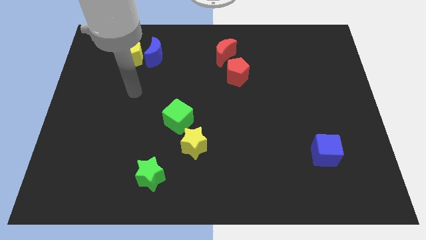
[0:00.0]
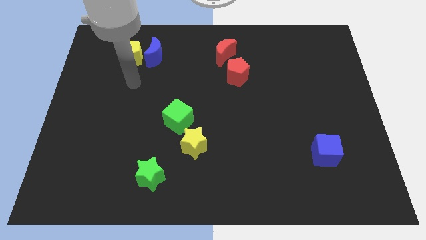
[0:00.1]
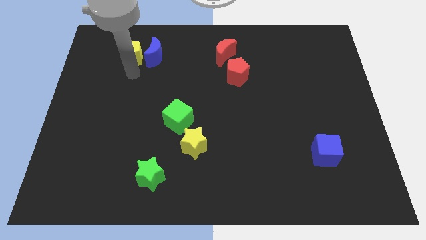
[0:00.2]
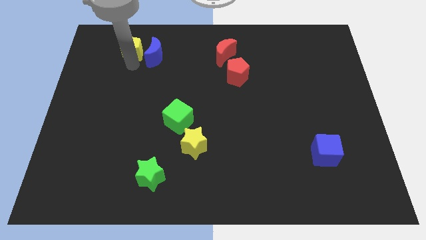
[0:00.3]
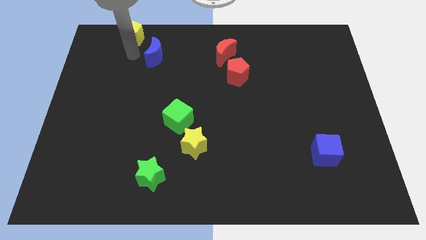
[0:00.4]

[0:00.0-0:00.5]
move the blue moon away from the yellow pentagon

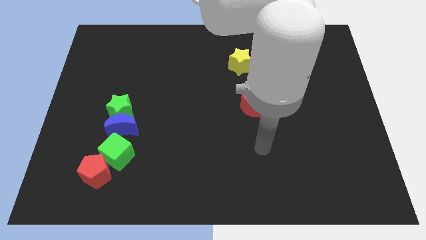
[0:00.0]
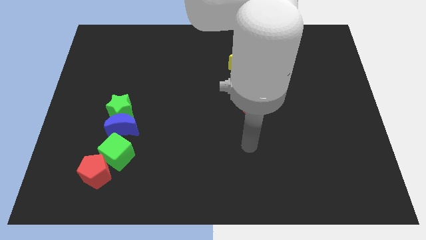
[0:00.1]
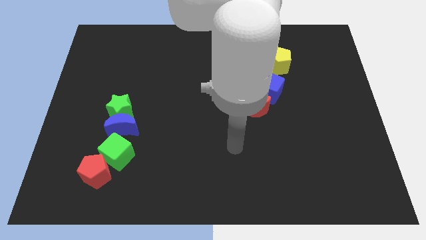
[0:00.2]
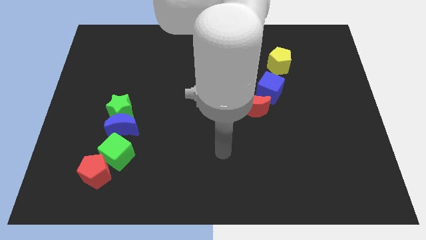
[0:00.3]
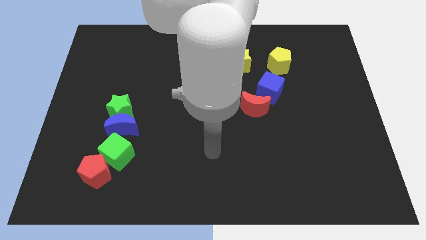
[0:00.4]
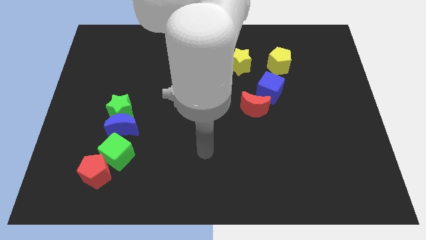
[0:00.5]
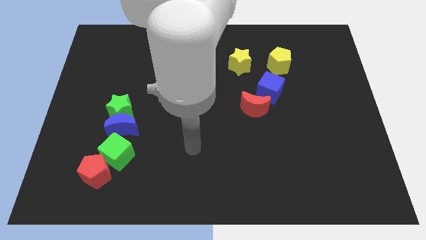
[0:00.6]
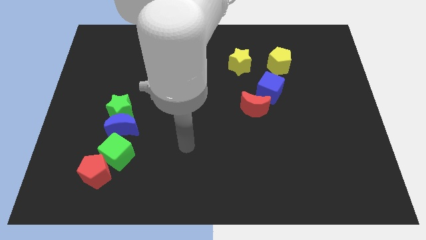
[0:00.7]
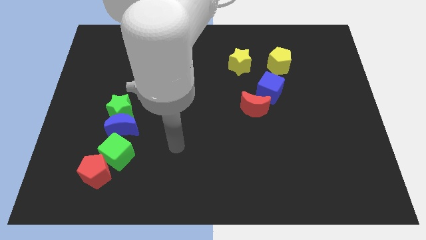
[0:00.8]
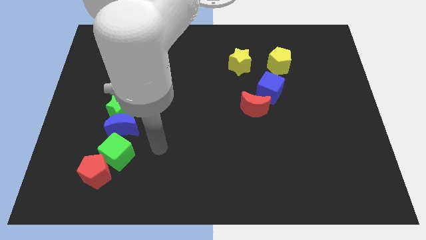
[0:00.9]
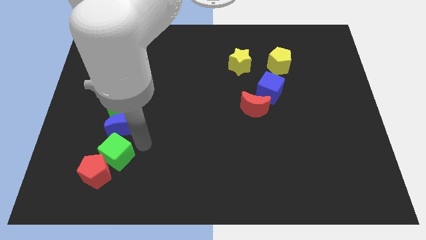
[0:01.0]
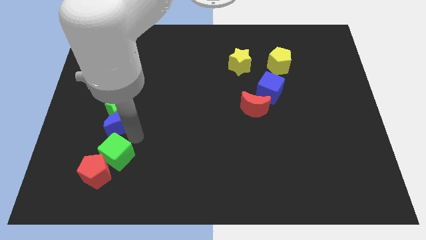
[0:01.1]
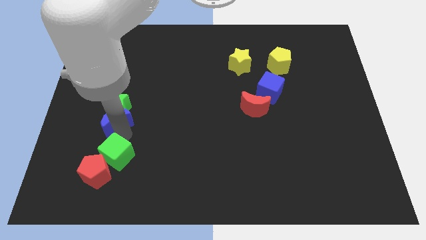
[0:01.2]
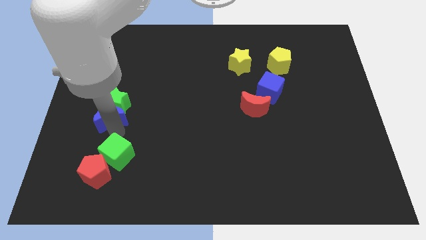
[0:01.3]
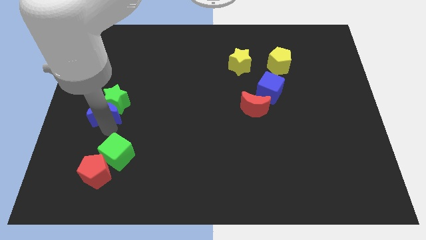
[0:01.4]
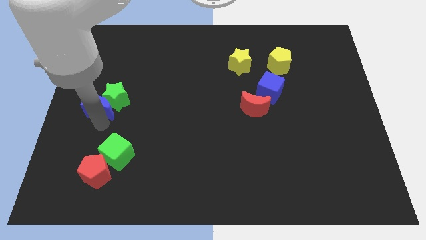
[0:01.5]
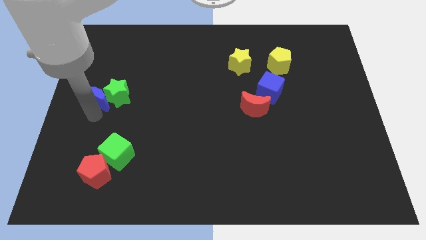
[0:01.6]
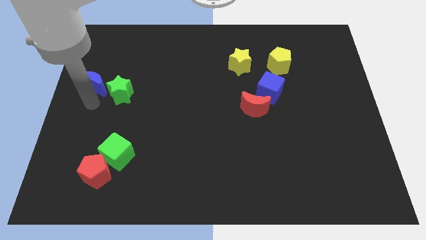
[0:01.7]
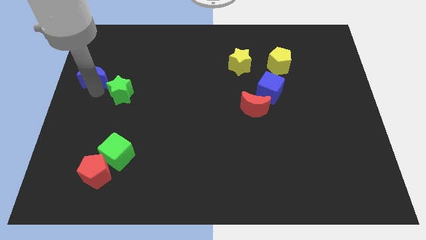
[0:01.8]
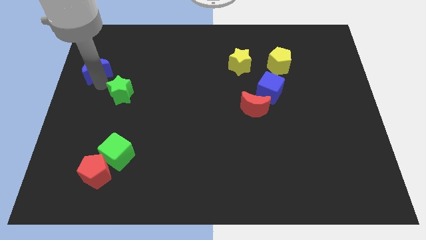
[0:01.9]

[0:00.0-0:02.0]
move the green star away from the blue moon

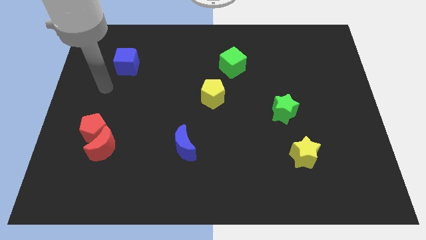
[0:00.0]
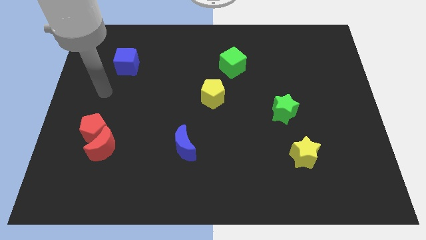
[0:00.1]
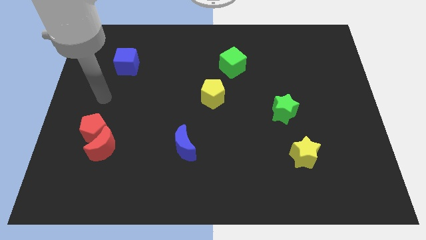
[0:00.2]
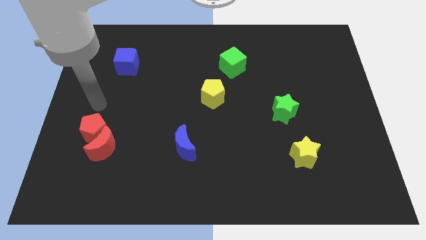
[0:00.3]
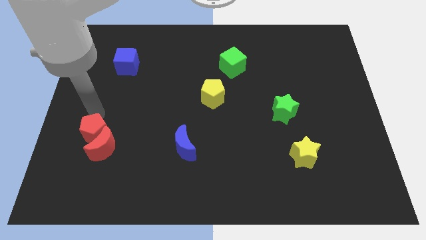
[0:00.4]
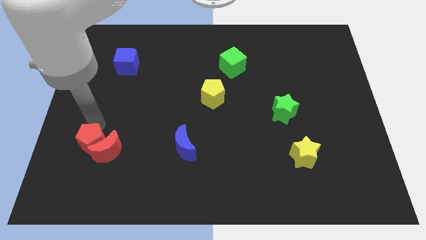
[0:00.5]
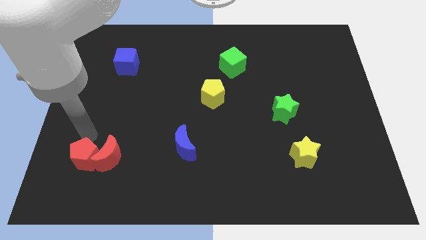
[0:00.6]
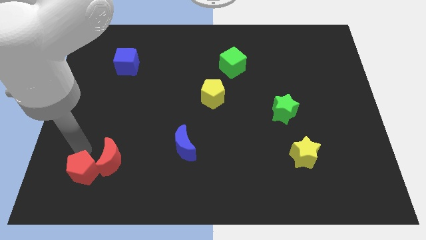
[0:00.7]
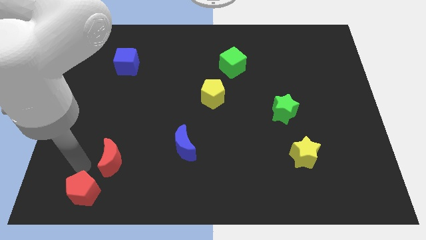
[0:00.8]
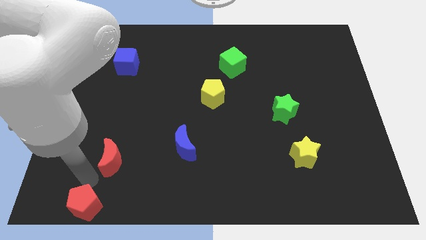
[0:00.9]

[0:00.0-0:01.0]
move the red moon away from the red pentagon

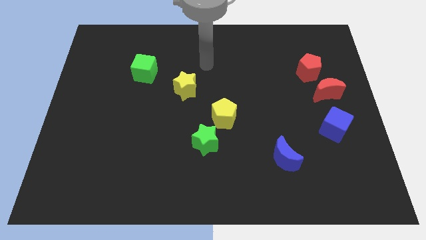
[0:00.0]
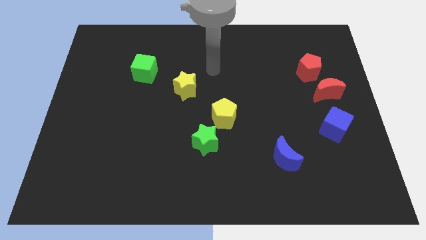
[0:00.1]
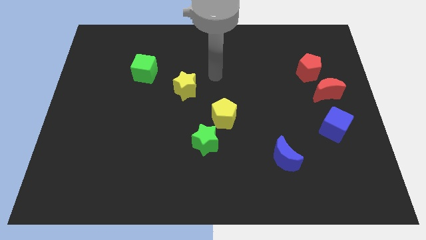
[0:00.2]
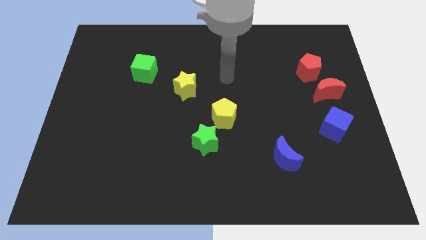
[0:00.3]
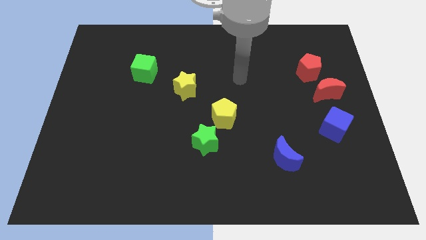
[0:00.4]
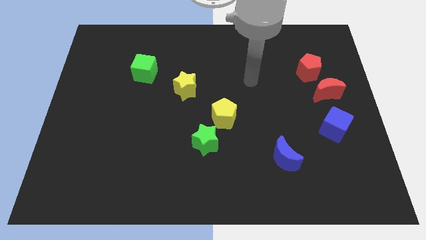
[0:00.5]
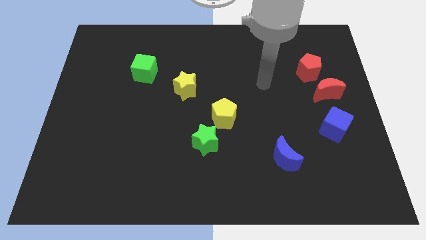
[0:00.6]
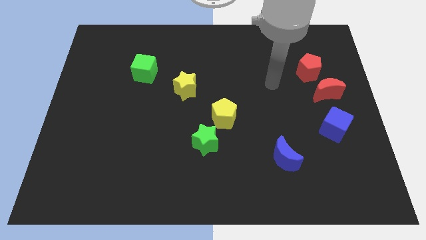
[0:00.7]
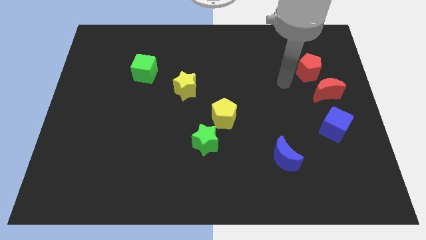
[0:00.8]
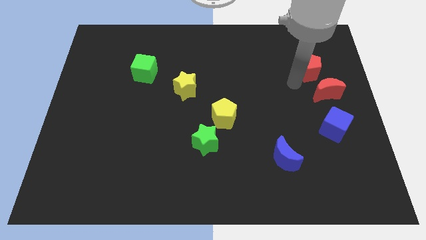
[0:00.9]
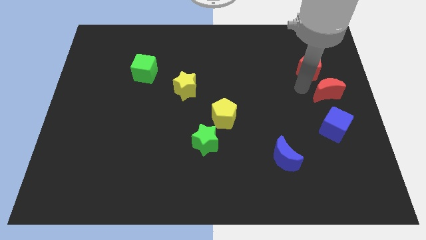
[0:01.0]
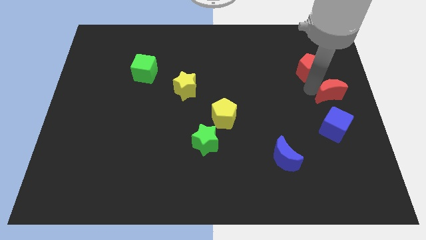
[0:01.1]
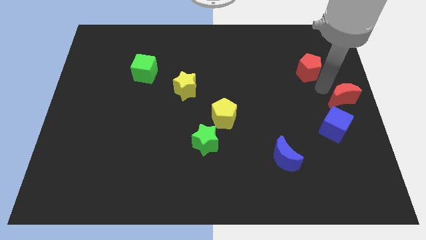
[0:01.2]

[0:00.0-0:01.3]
pull the red pentagon apart from the red moon

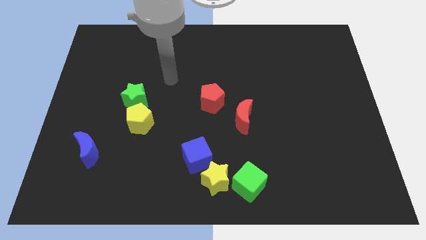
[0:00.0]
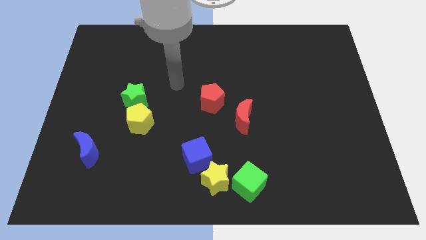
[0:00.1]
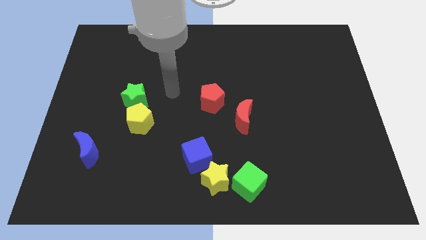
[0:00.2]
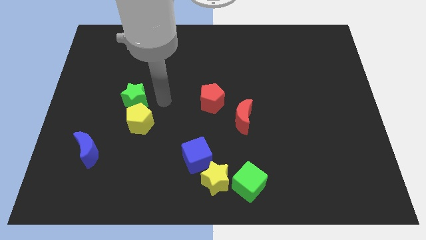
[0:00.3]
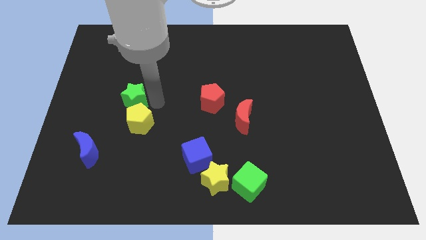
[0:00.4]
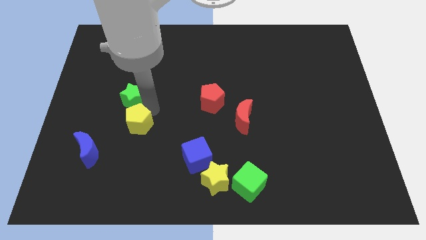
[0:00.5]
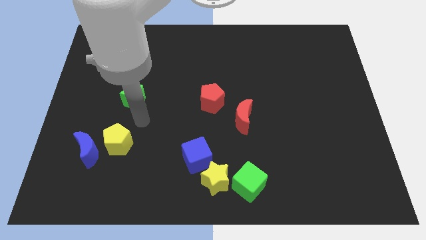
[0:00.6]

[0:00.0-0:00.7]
move the green star away from the yellow pentagon

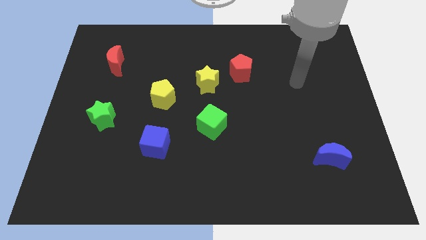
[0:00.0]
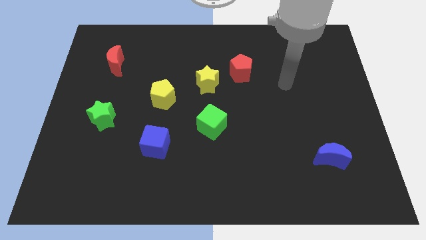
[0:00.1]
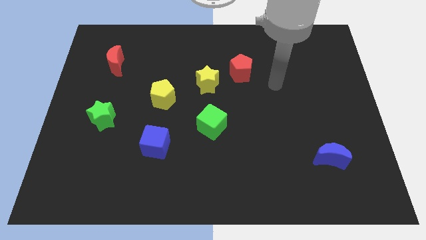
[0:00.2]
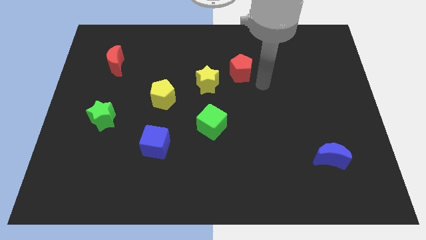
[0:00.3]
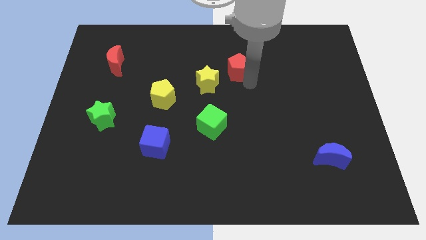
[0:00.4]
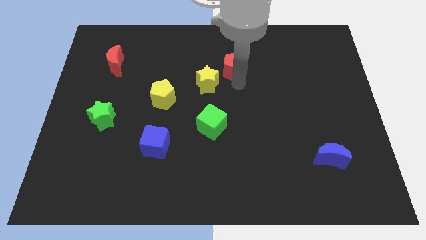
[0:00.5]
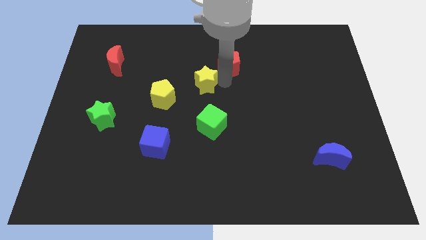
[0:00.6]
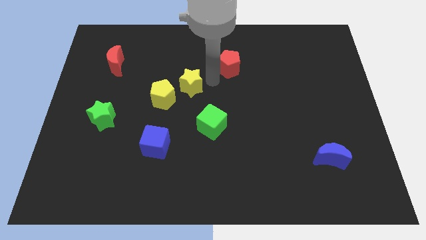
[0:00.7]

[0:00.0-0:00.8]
separate the red pentagon from the yellow star

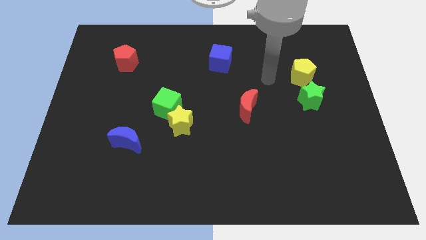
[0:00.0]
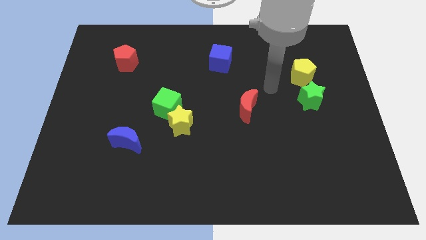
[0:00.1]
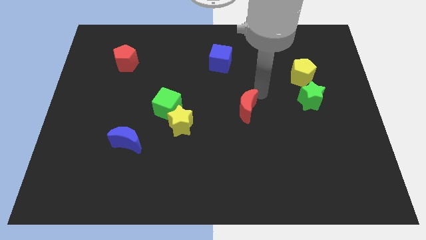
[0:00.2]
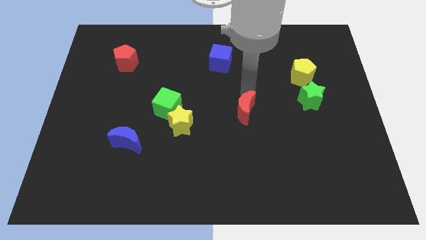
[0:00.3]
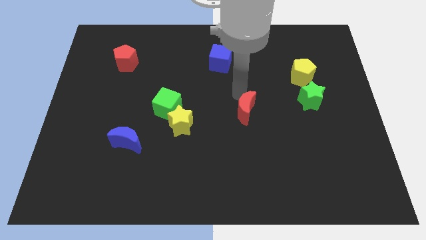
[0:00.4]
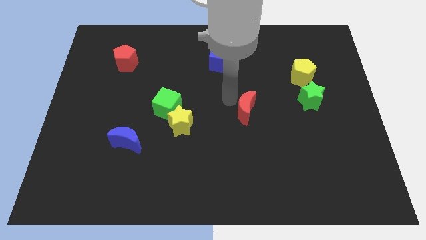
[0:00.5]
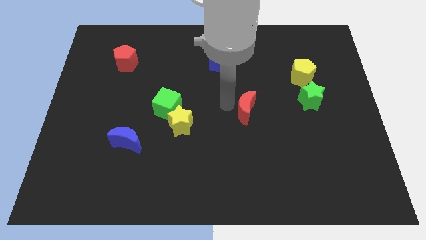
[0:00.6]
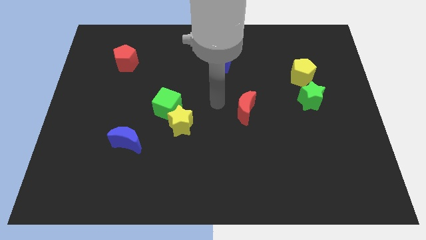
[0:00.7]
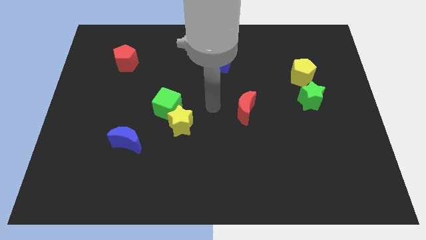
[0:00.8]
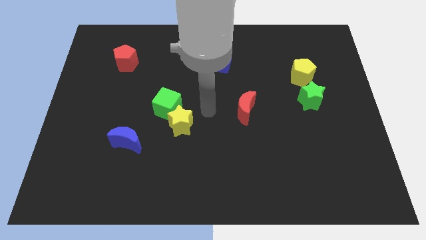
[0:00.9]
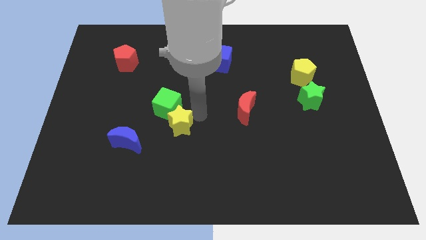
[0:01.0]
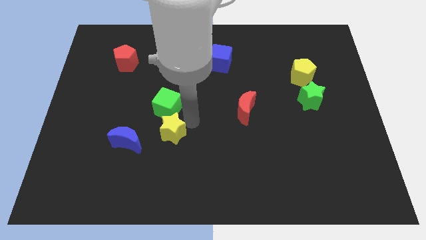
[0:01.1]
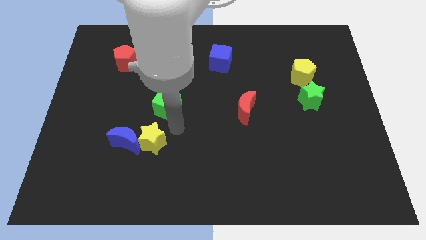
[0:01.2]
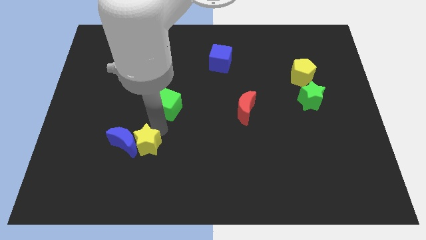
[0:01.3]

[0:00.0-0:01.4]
pull the green cube apart from the yellow star

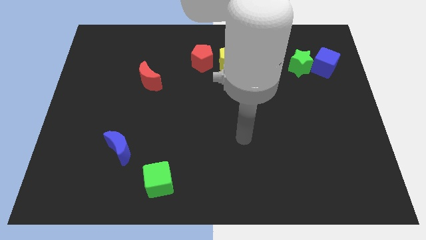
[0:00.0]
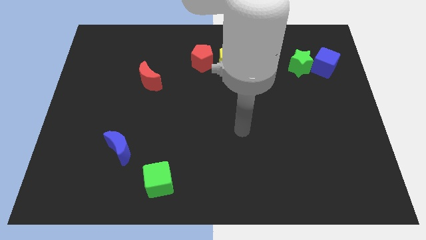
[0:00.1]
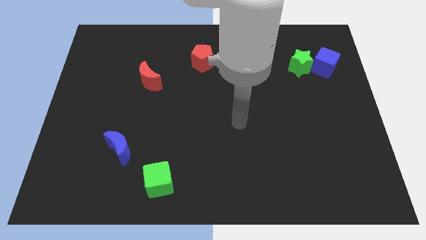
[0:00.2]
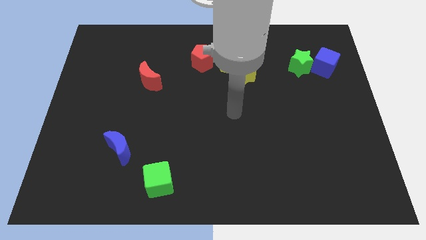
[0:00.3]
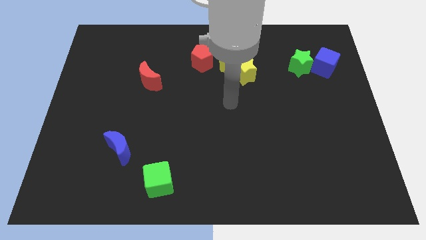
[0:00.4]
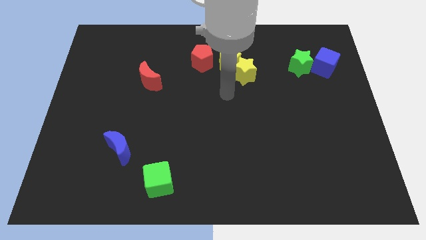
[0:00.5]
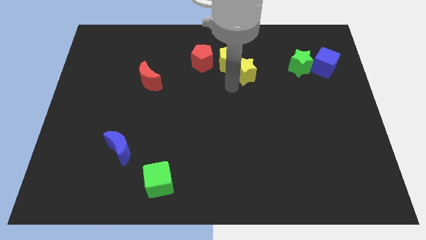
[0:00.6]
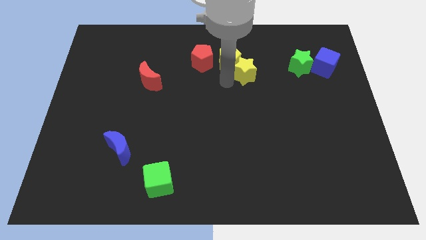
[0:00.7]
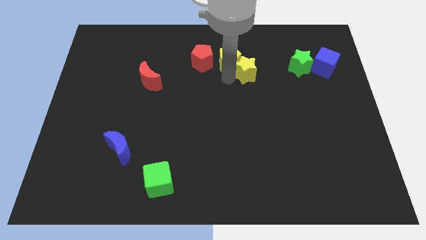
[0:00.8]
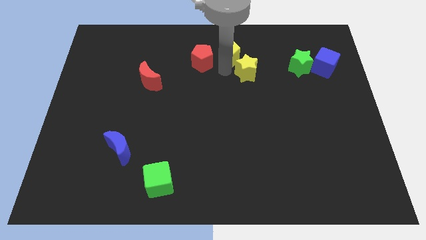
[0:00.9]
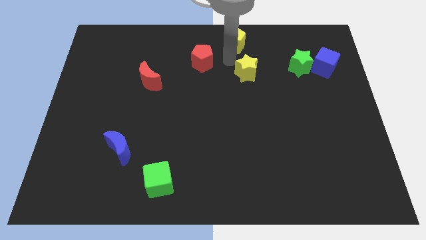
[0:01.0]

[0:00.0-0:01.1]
move the yellow star away from the yellow pentagon

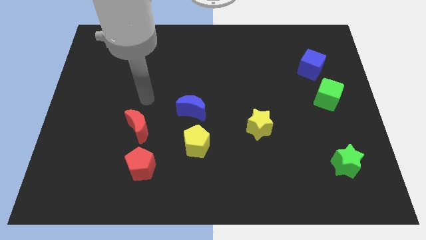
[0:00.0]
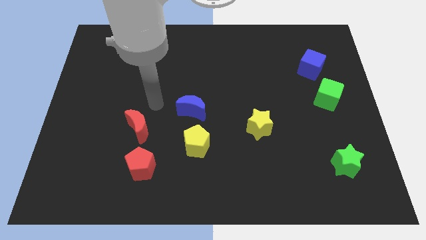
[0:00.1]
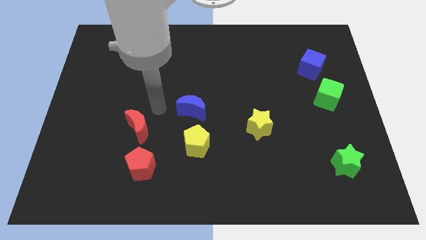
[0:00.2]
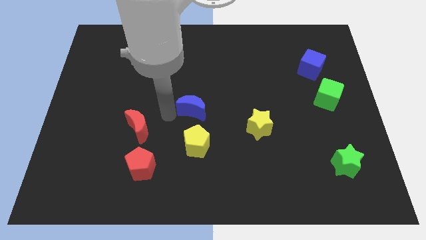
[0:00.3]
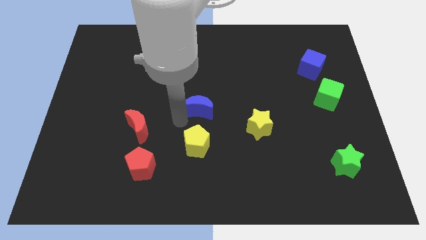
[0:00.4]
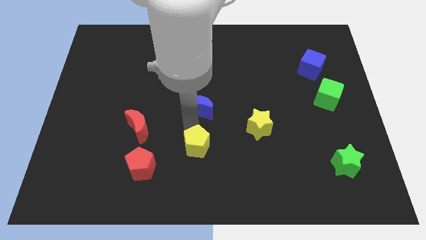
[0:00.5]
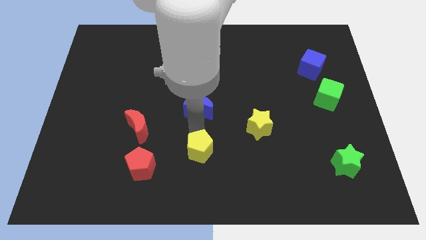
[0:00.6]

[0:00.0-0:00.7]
pull the blue moon apart from the yellow pentagon
